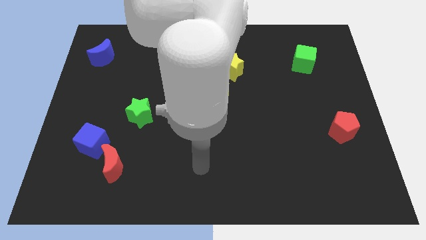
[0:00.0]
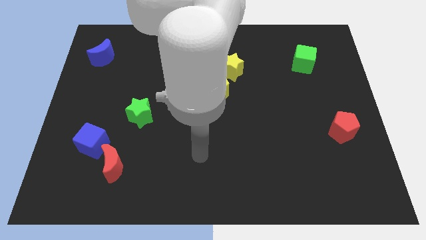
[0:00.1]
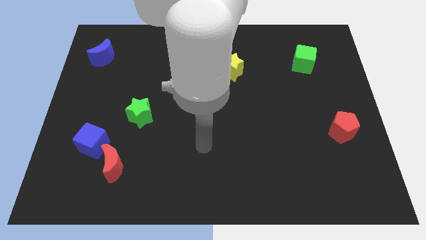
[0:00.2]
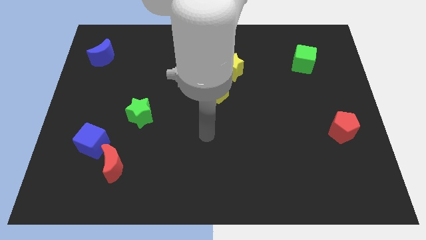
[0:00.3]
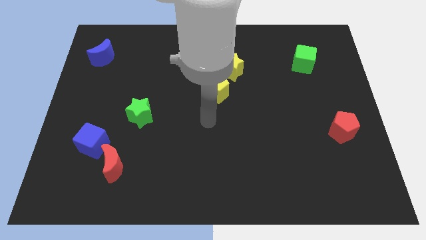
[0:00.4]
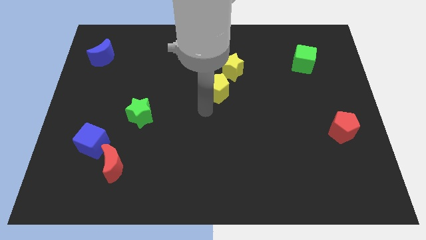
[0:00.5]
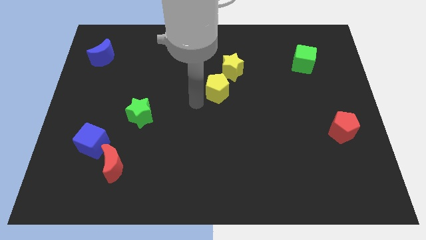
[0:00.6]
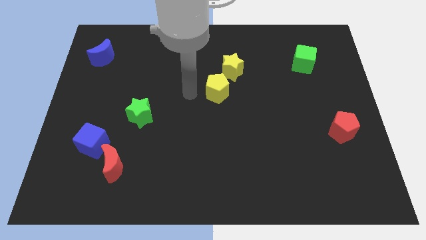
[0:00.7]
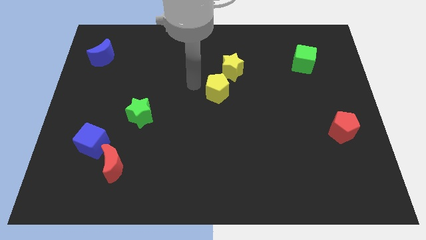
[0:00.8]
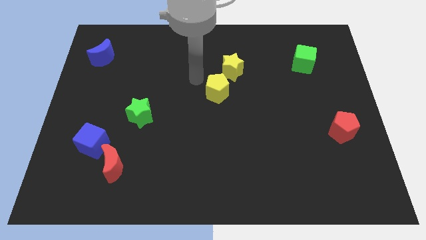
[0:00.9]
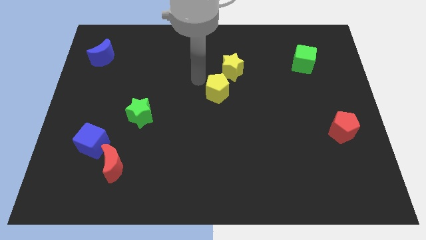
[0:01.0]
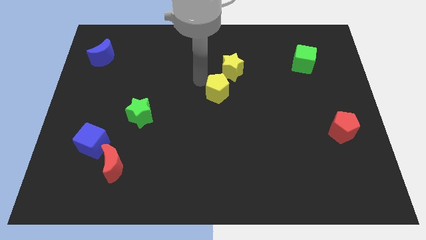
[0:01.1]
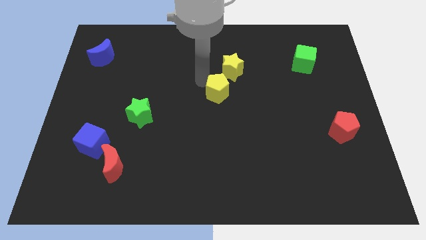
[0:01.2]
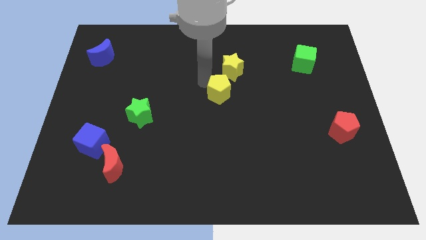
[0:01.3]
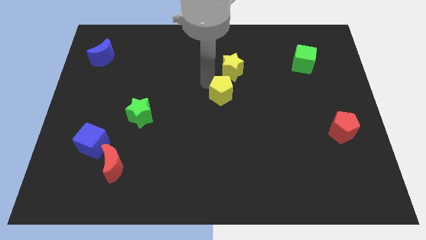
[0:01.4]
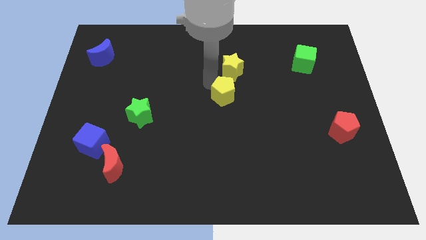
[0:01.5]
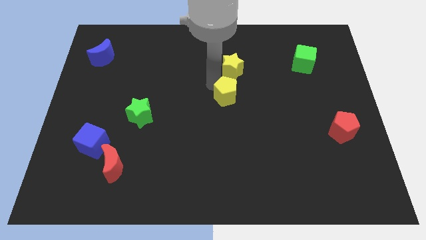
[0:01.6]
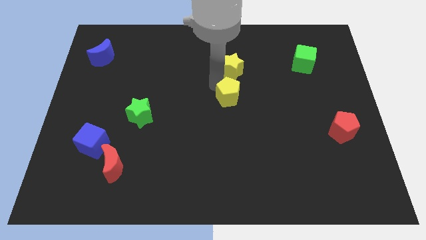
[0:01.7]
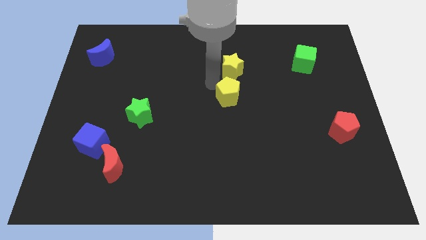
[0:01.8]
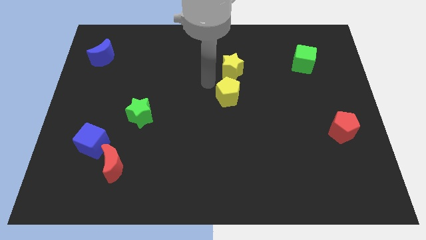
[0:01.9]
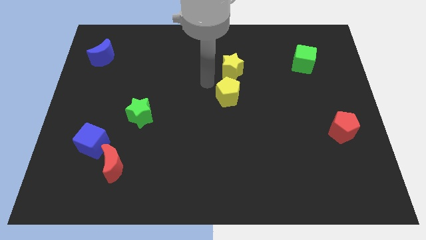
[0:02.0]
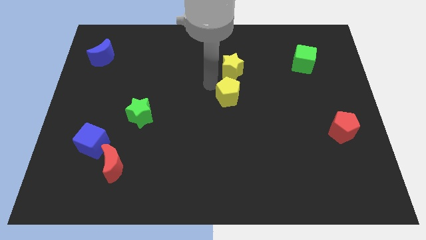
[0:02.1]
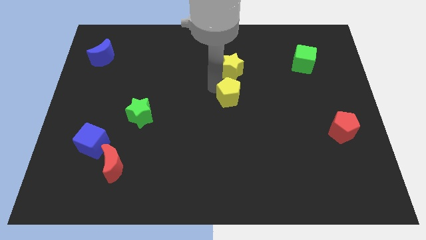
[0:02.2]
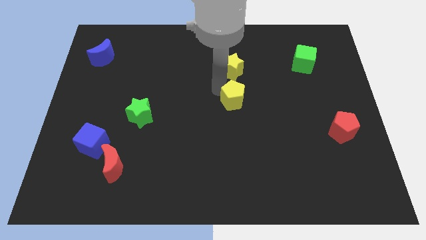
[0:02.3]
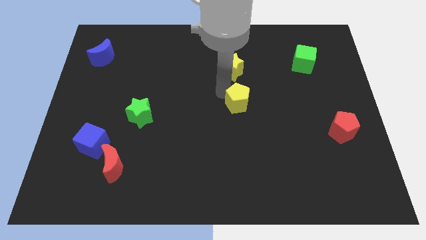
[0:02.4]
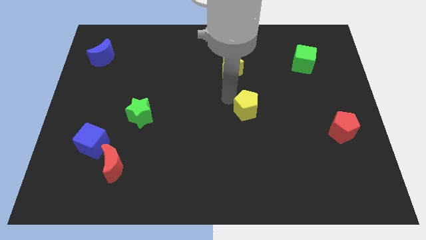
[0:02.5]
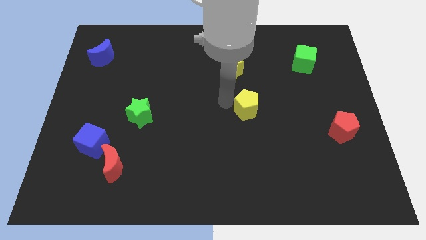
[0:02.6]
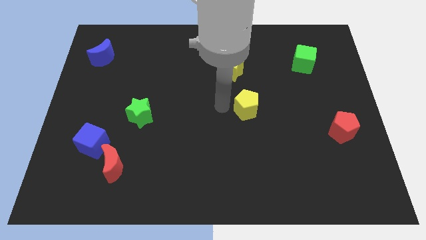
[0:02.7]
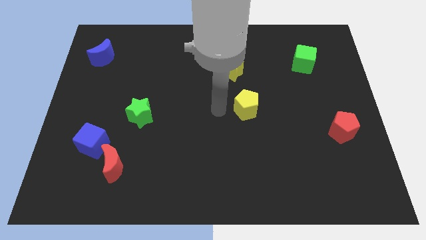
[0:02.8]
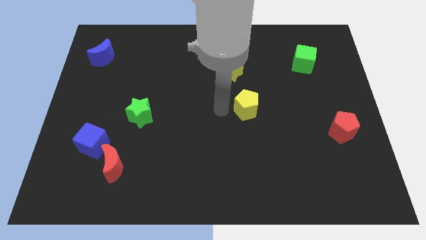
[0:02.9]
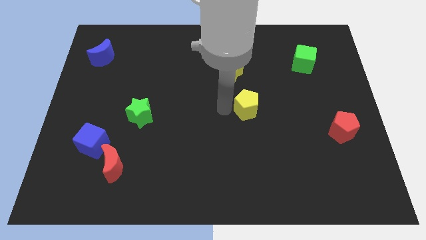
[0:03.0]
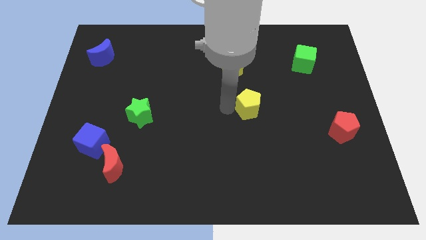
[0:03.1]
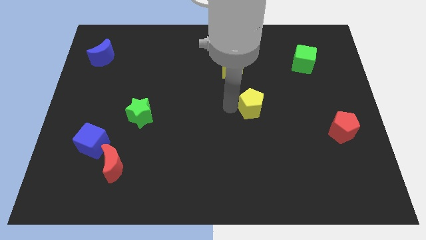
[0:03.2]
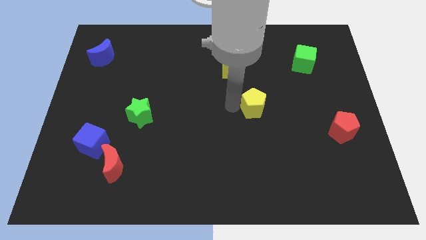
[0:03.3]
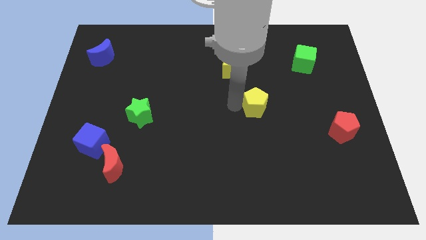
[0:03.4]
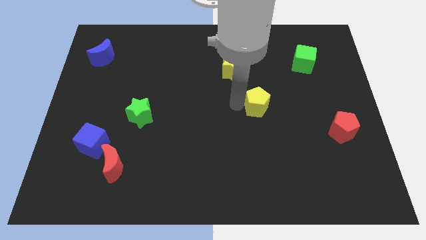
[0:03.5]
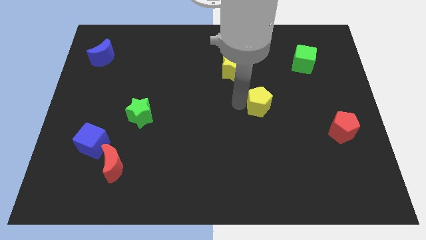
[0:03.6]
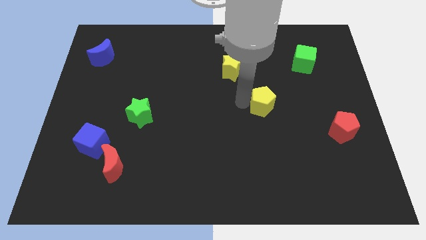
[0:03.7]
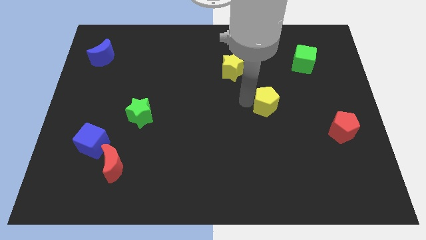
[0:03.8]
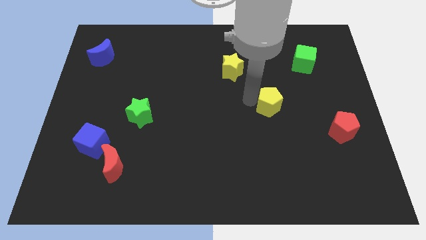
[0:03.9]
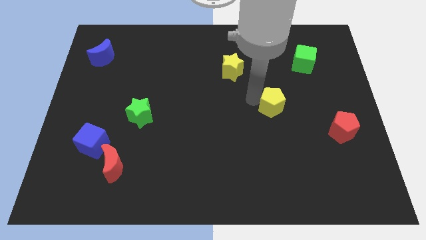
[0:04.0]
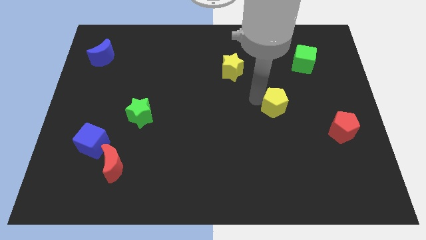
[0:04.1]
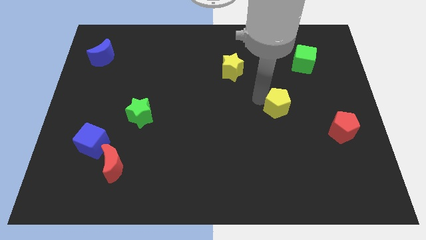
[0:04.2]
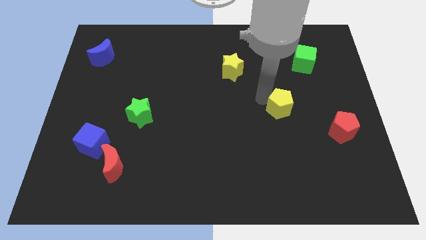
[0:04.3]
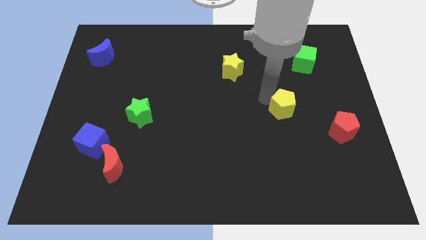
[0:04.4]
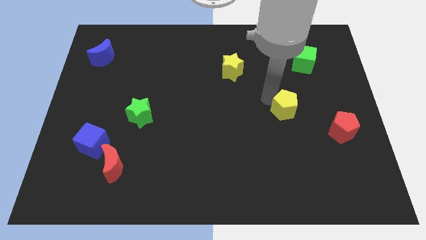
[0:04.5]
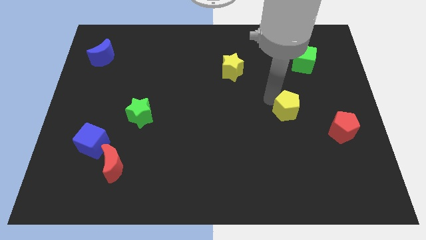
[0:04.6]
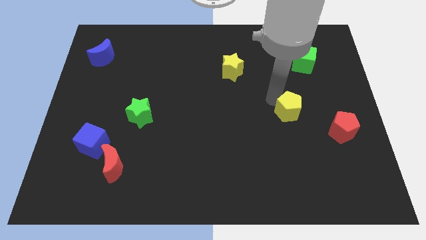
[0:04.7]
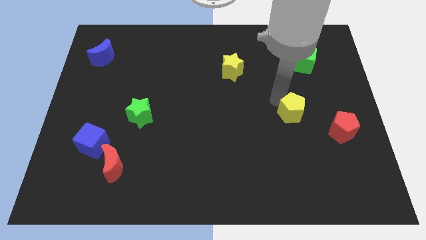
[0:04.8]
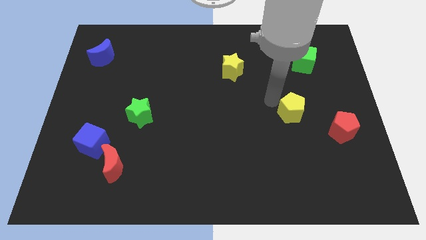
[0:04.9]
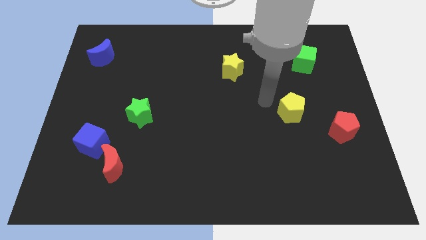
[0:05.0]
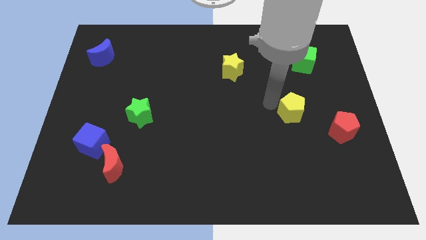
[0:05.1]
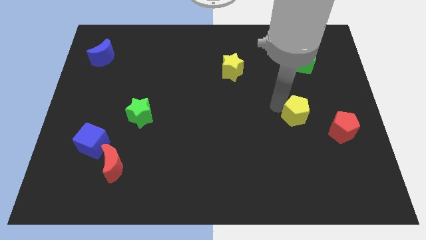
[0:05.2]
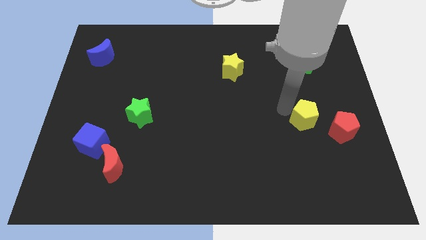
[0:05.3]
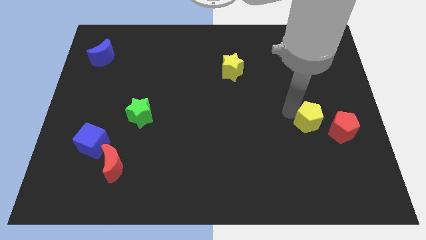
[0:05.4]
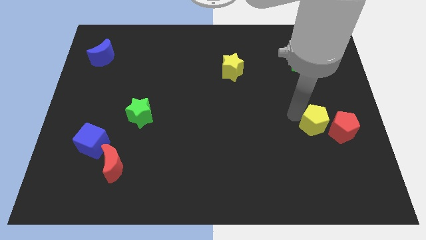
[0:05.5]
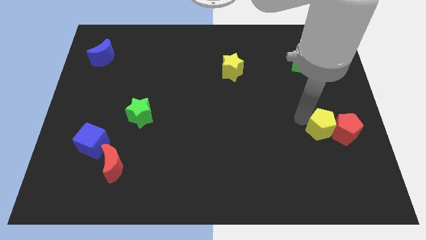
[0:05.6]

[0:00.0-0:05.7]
push the yellow pentagon next to the red pentagon

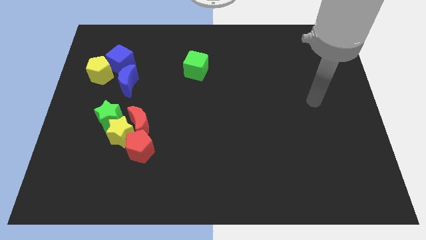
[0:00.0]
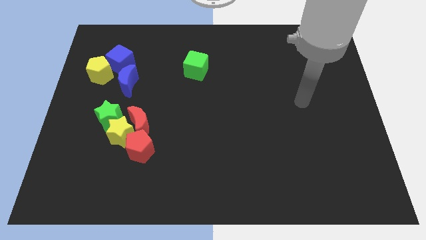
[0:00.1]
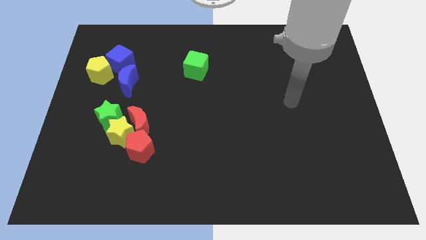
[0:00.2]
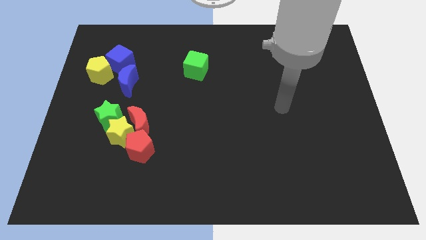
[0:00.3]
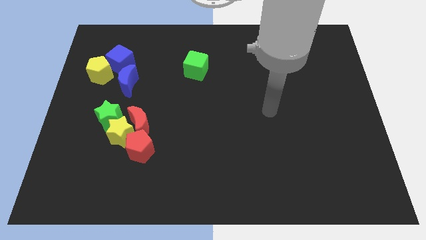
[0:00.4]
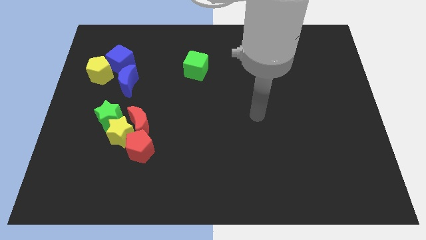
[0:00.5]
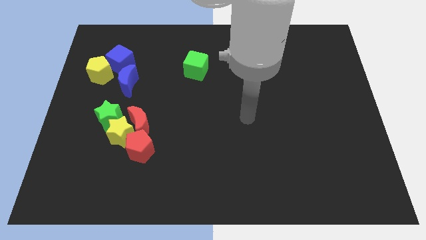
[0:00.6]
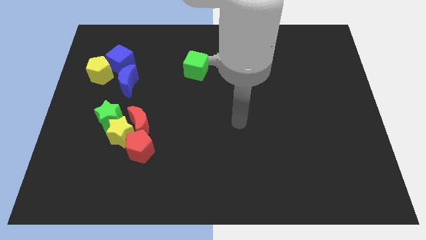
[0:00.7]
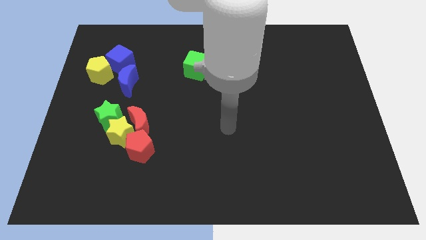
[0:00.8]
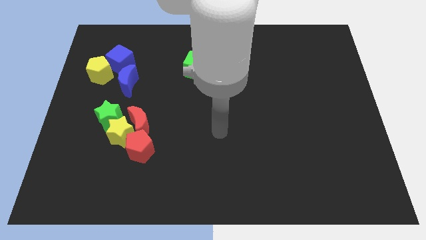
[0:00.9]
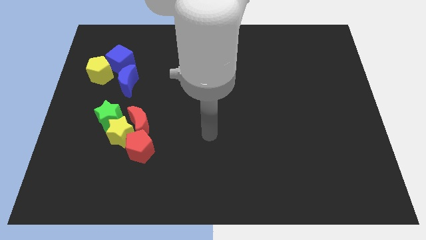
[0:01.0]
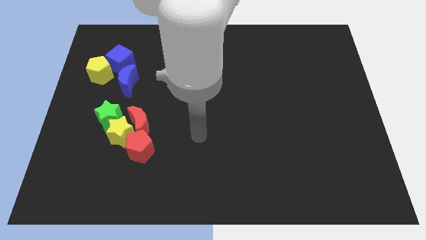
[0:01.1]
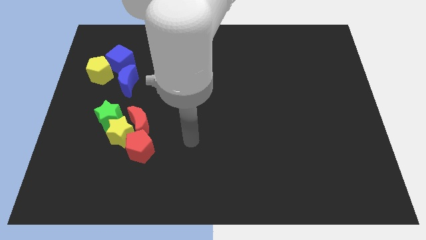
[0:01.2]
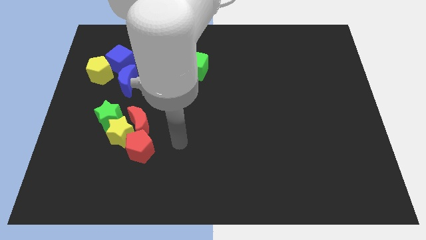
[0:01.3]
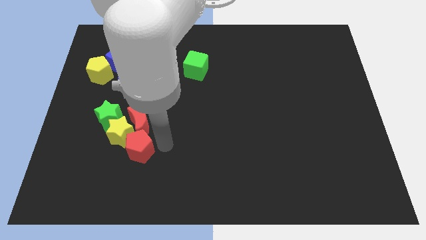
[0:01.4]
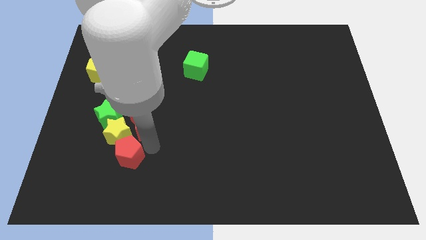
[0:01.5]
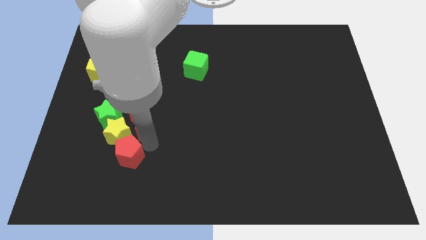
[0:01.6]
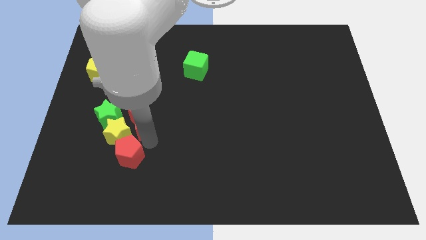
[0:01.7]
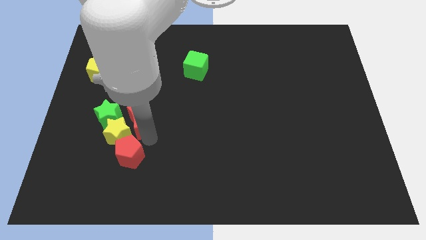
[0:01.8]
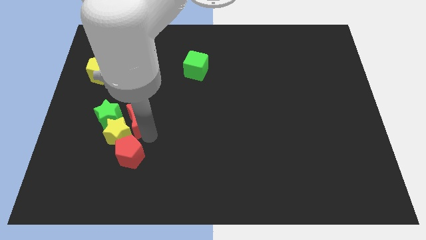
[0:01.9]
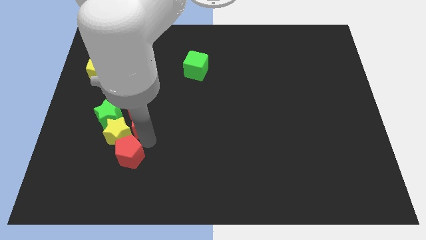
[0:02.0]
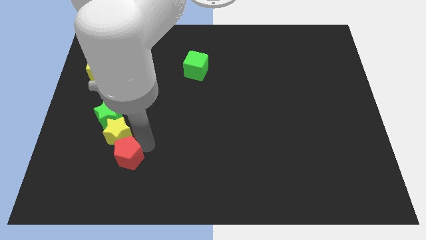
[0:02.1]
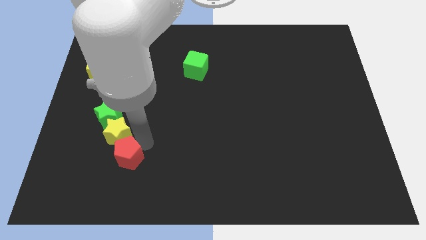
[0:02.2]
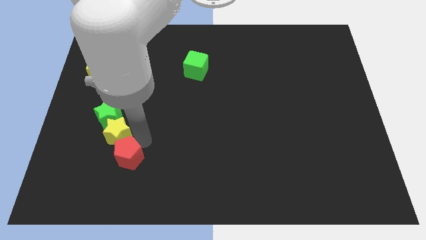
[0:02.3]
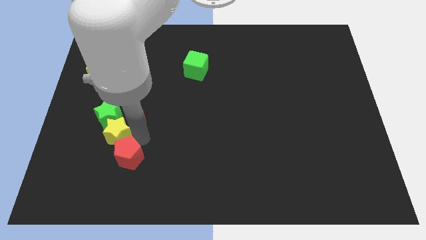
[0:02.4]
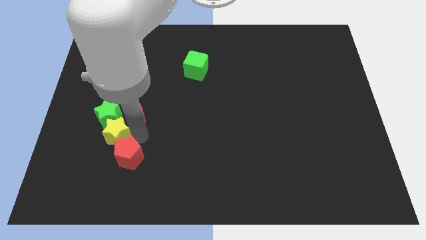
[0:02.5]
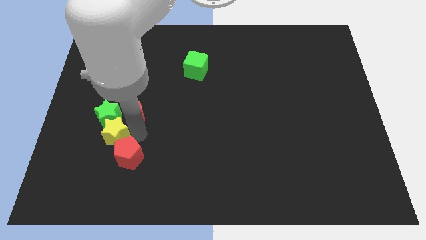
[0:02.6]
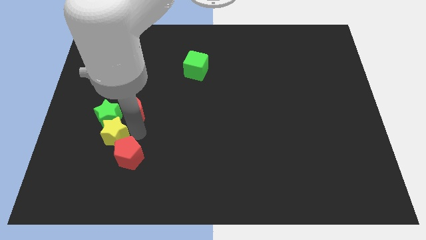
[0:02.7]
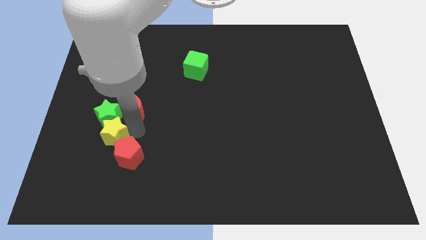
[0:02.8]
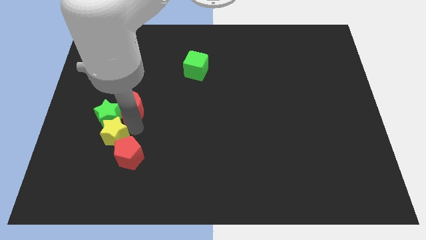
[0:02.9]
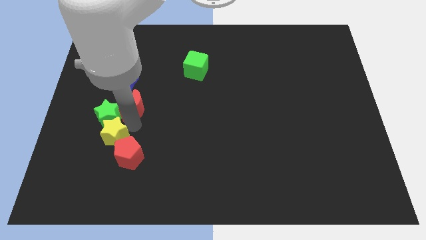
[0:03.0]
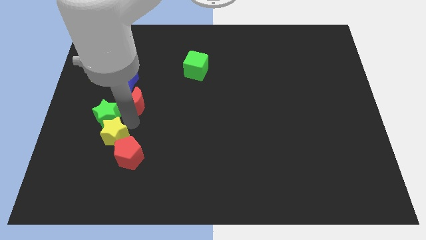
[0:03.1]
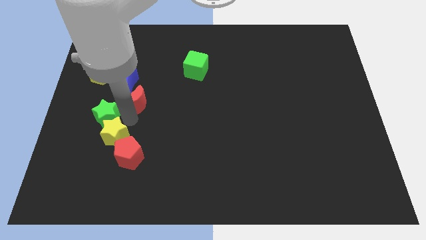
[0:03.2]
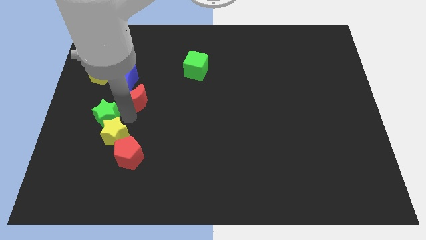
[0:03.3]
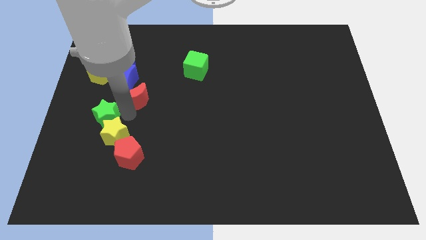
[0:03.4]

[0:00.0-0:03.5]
move the red moon next to the blue moon
